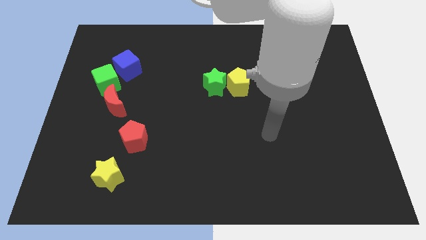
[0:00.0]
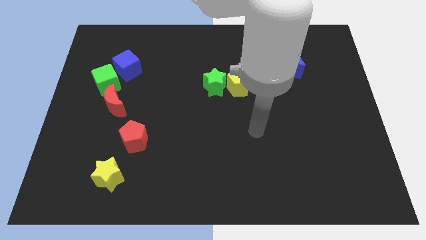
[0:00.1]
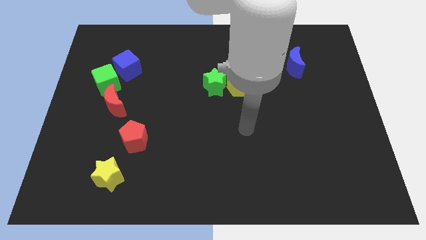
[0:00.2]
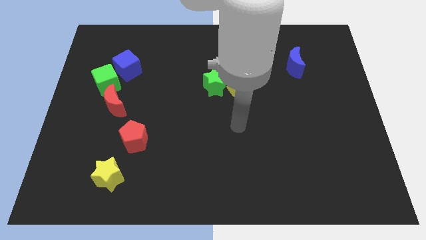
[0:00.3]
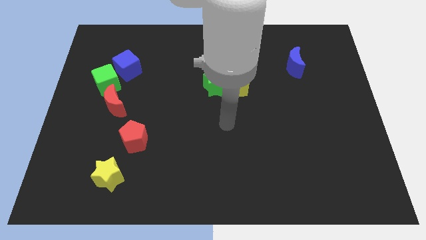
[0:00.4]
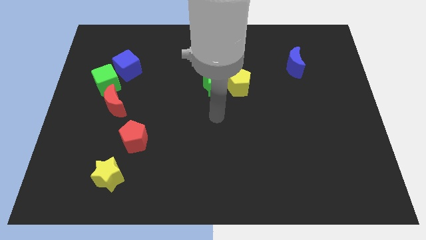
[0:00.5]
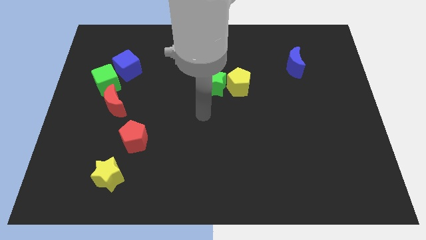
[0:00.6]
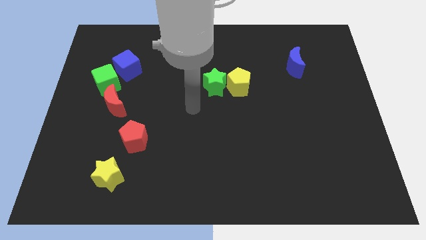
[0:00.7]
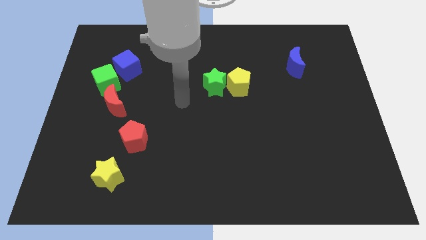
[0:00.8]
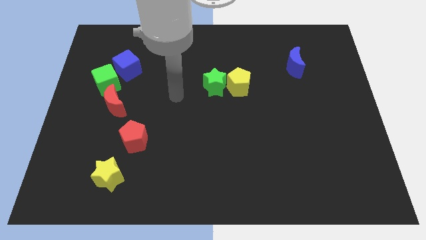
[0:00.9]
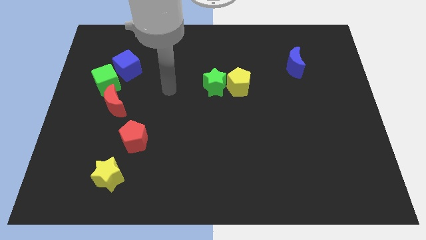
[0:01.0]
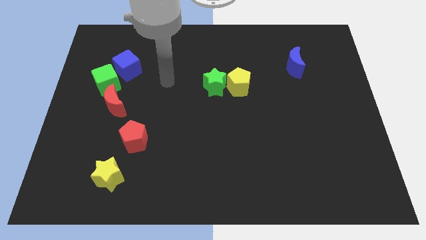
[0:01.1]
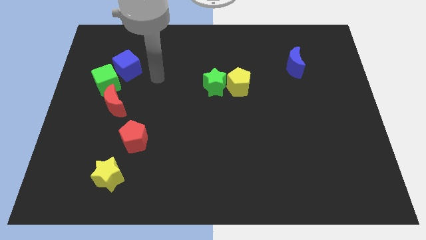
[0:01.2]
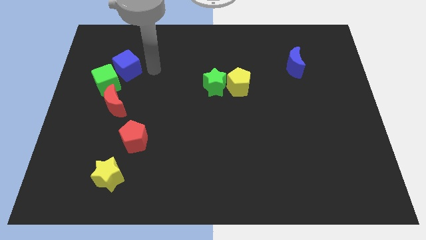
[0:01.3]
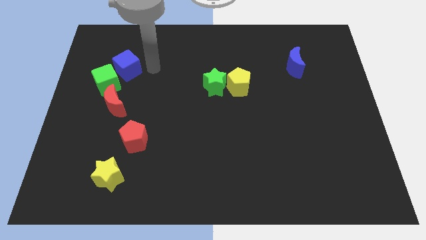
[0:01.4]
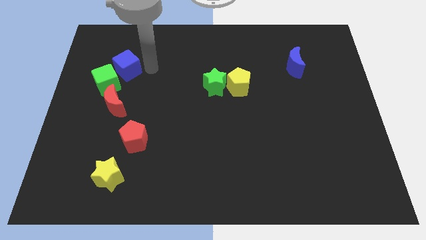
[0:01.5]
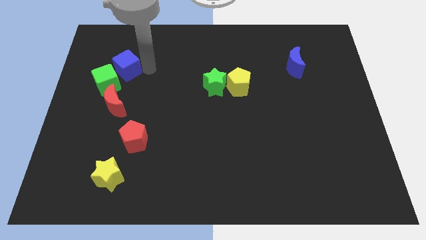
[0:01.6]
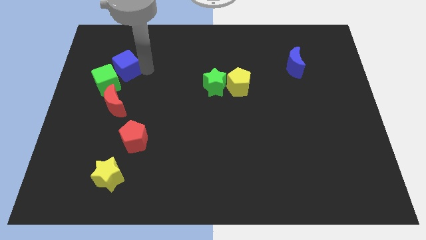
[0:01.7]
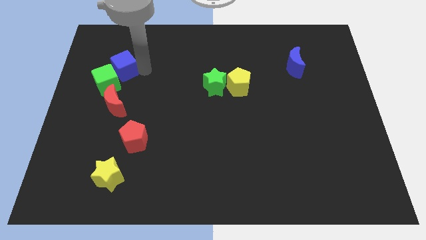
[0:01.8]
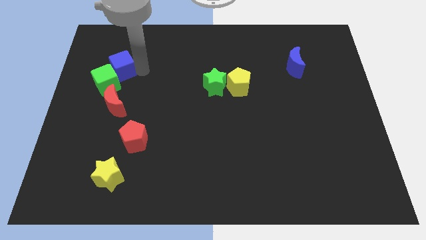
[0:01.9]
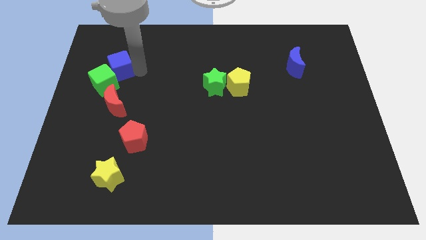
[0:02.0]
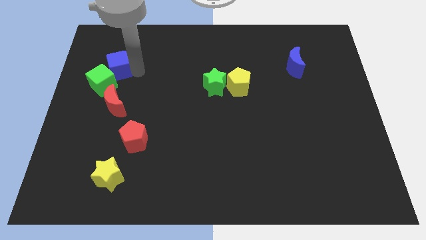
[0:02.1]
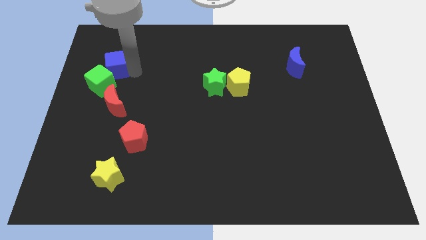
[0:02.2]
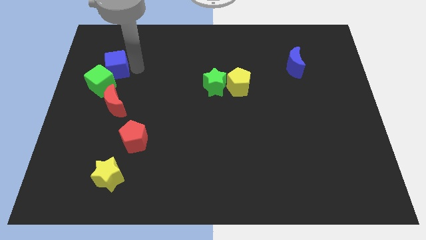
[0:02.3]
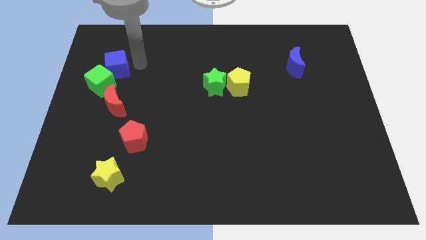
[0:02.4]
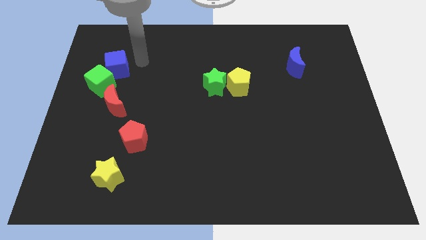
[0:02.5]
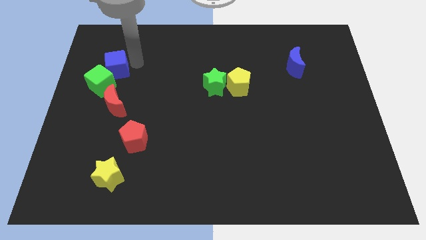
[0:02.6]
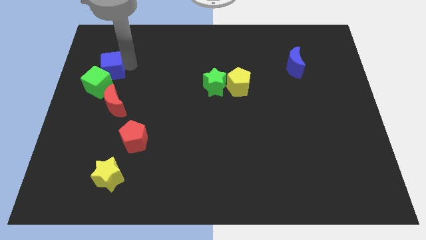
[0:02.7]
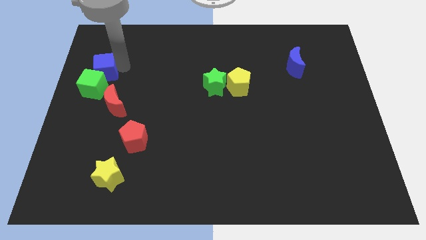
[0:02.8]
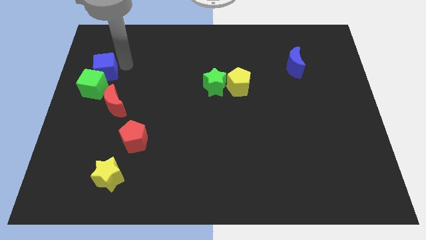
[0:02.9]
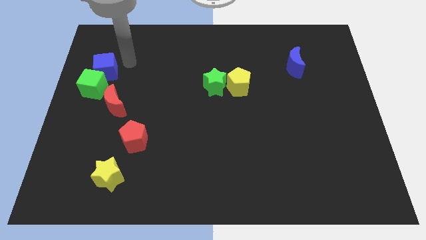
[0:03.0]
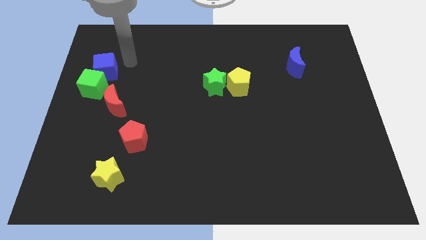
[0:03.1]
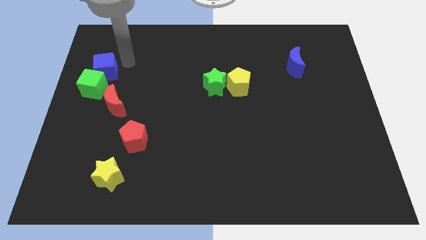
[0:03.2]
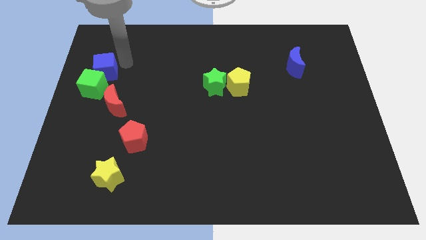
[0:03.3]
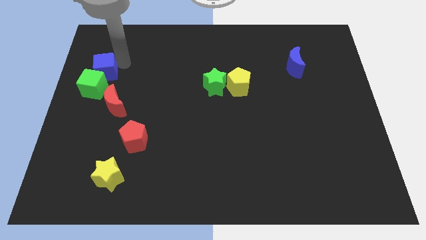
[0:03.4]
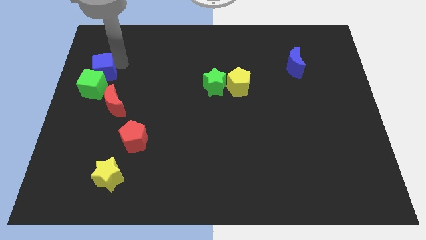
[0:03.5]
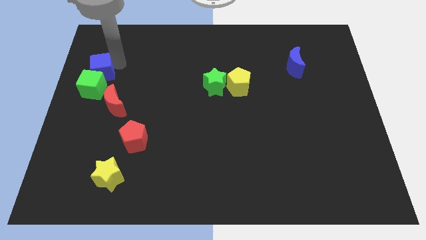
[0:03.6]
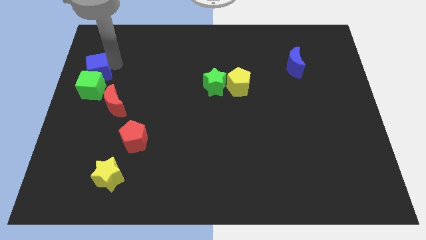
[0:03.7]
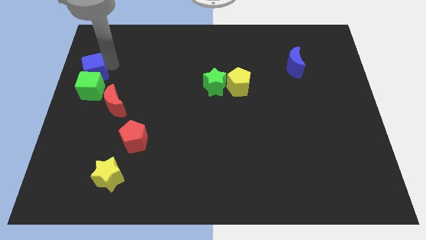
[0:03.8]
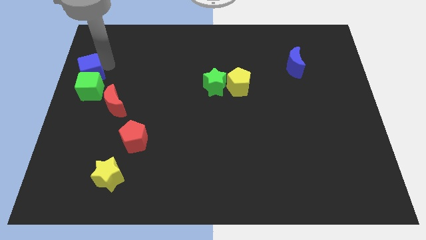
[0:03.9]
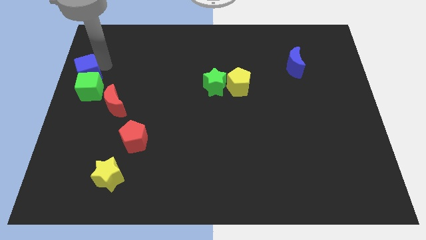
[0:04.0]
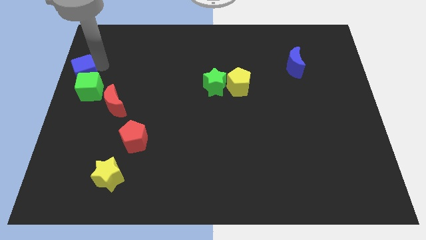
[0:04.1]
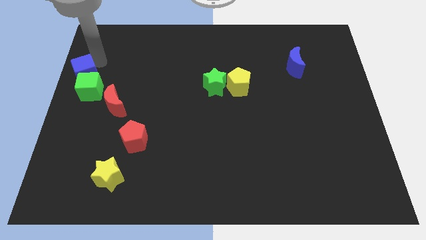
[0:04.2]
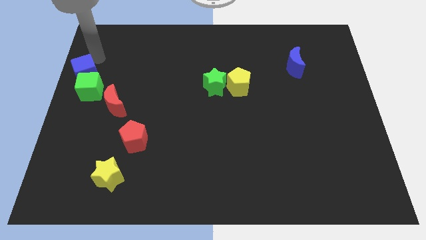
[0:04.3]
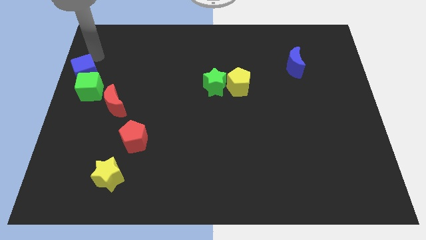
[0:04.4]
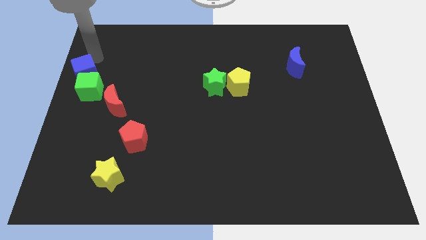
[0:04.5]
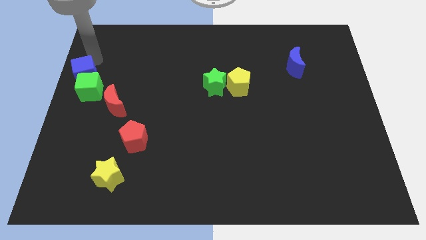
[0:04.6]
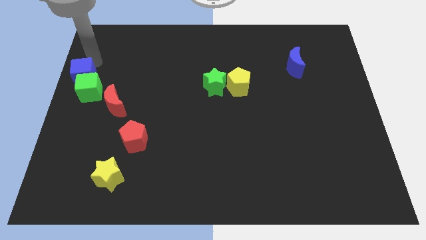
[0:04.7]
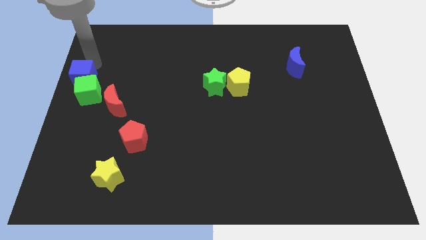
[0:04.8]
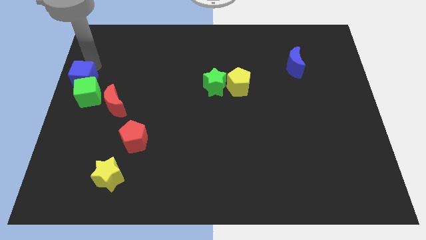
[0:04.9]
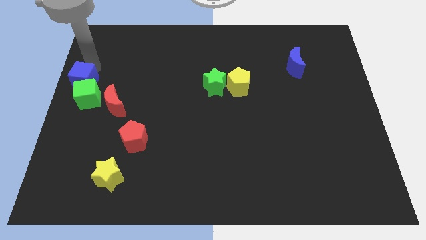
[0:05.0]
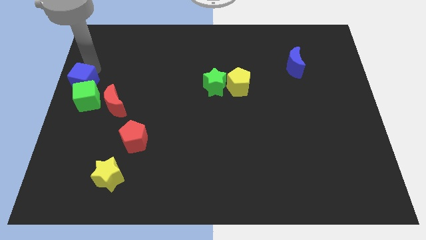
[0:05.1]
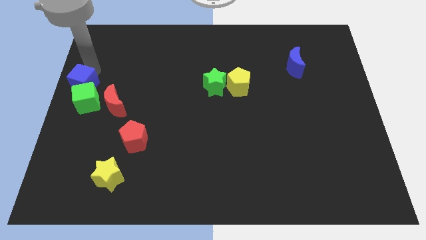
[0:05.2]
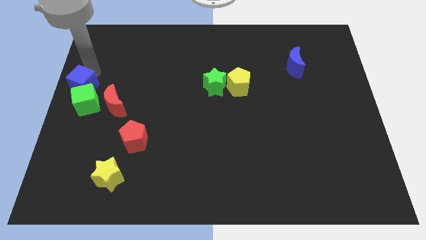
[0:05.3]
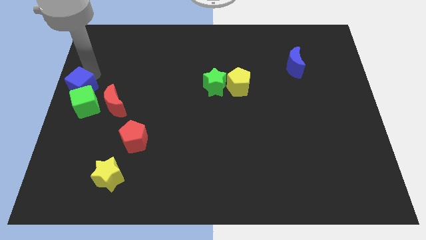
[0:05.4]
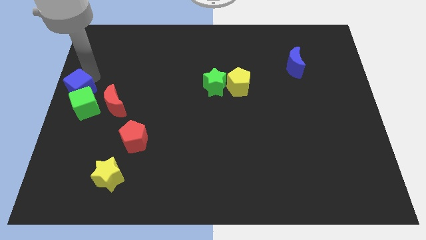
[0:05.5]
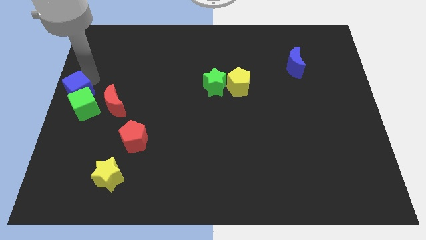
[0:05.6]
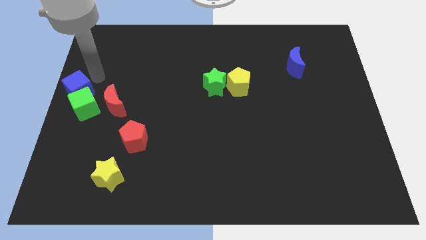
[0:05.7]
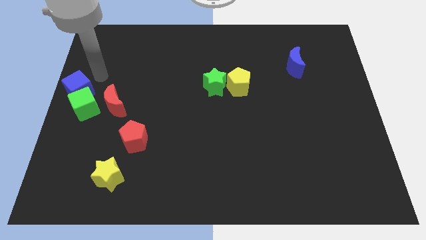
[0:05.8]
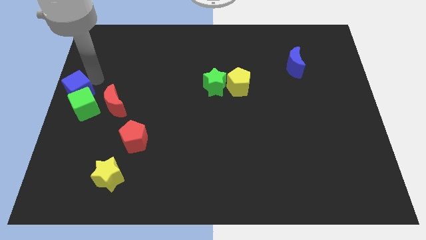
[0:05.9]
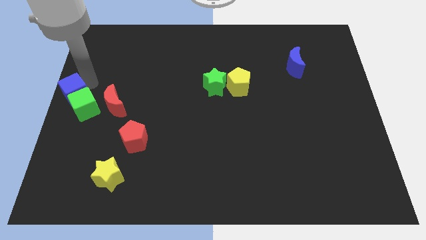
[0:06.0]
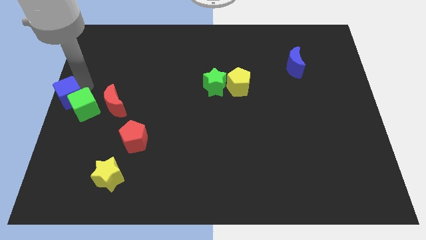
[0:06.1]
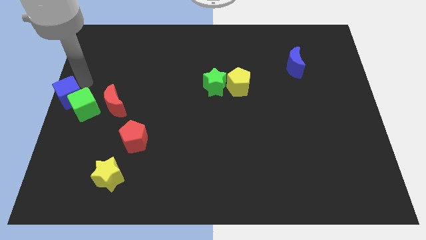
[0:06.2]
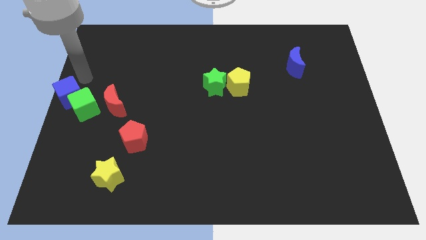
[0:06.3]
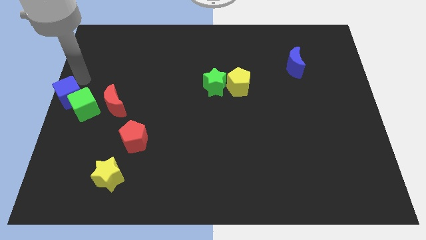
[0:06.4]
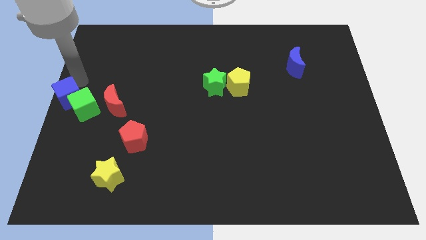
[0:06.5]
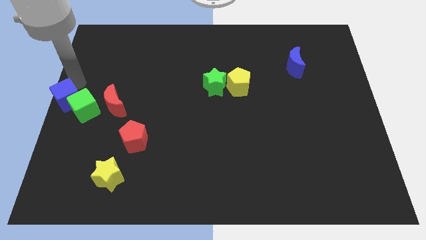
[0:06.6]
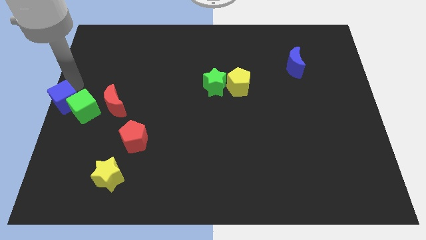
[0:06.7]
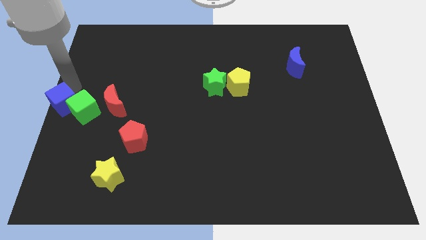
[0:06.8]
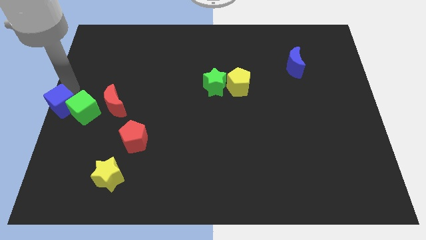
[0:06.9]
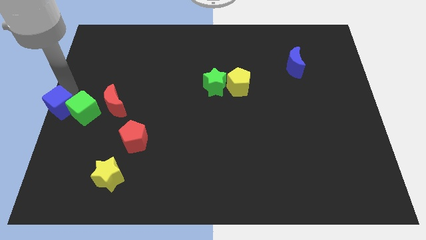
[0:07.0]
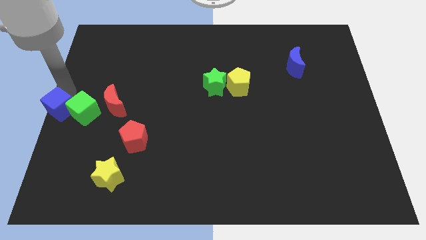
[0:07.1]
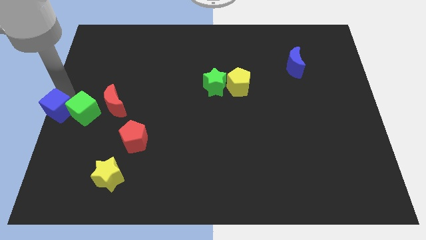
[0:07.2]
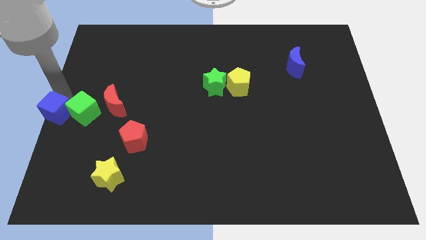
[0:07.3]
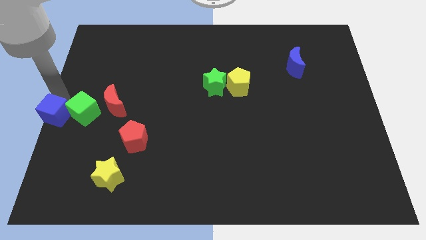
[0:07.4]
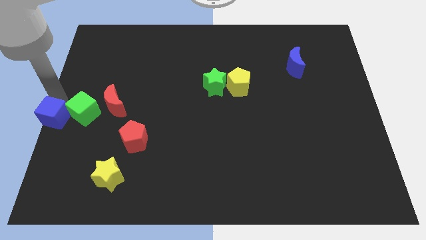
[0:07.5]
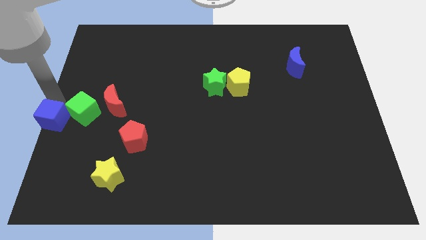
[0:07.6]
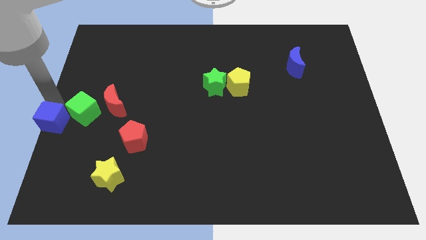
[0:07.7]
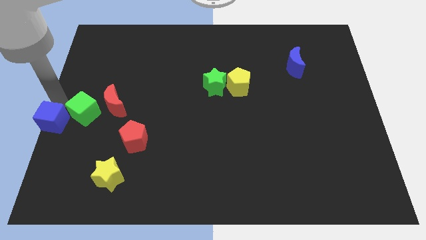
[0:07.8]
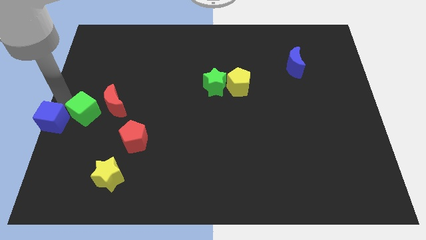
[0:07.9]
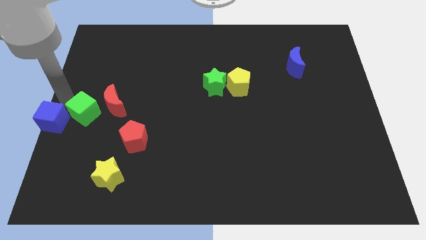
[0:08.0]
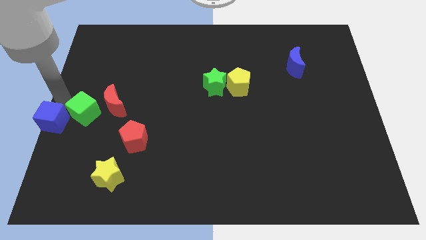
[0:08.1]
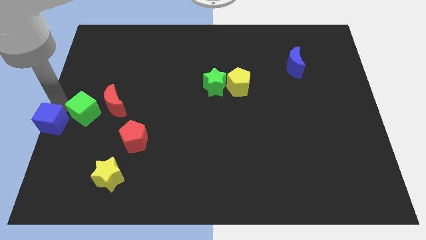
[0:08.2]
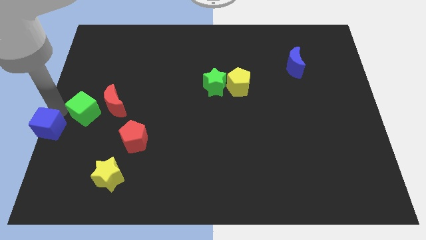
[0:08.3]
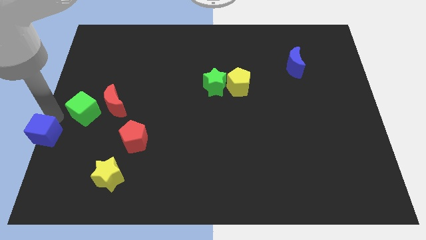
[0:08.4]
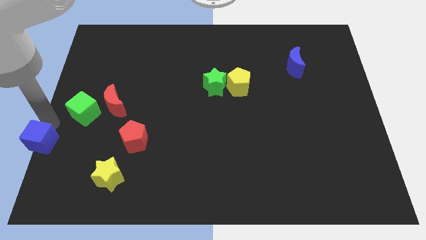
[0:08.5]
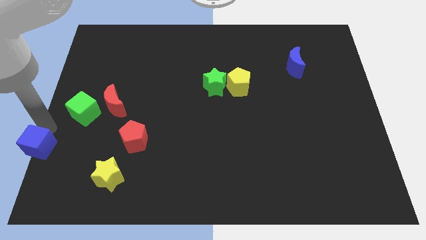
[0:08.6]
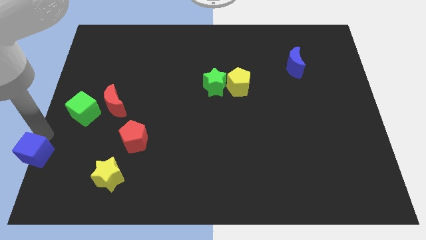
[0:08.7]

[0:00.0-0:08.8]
slide the blue cube to the bottom left of the board
